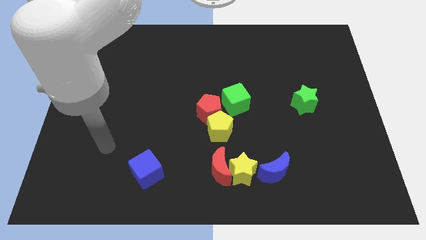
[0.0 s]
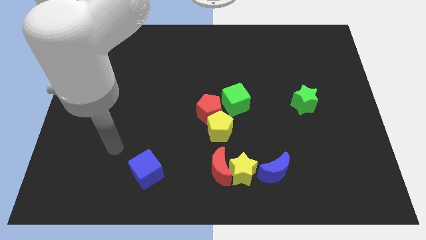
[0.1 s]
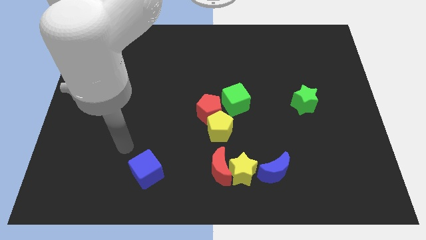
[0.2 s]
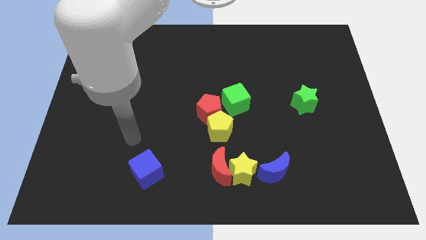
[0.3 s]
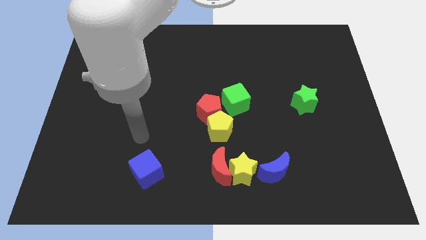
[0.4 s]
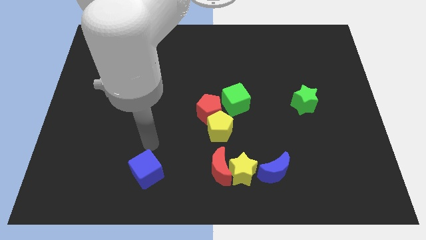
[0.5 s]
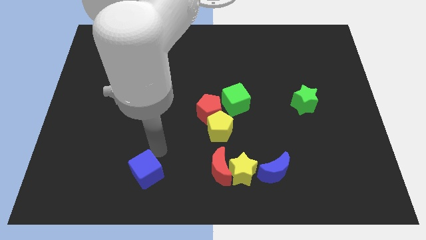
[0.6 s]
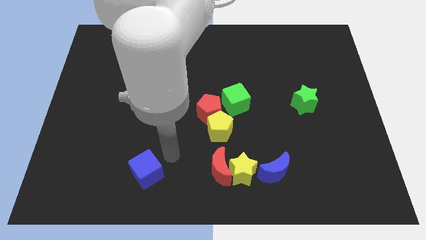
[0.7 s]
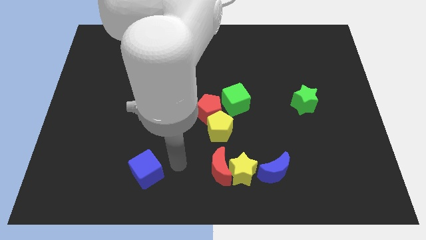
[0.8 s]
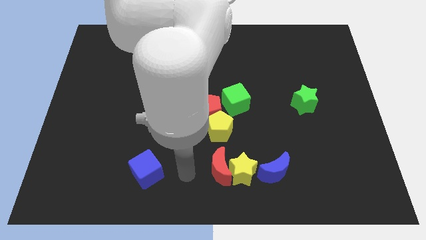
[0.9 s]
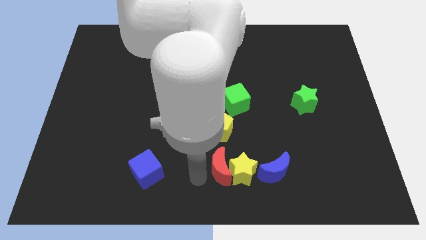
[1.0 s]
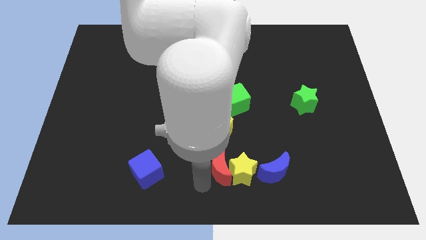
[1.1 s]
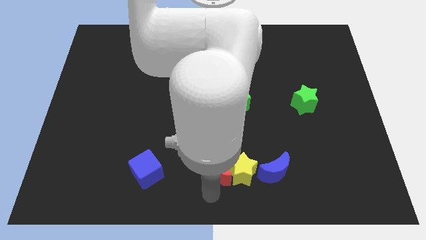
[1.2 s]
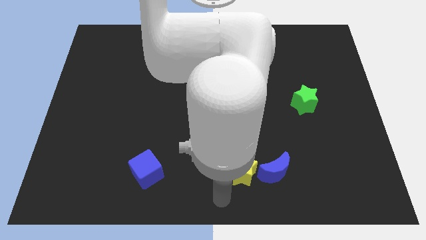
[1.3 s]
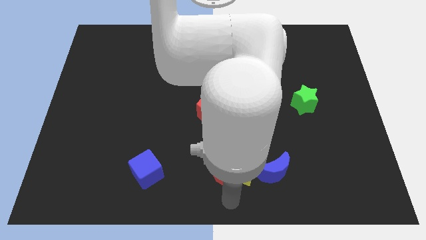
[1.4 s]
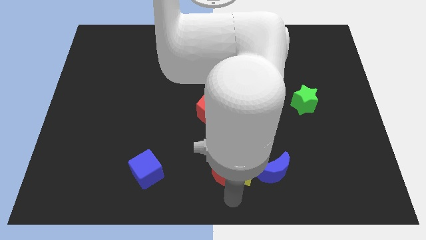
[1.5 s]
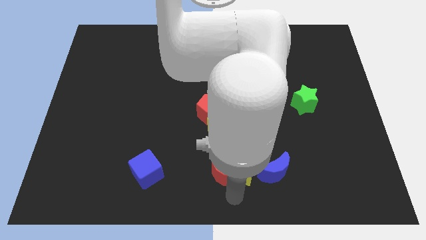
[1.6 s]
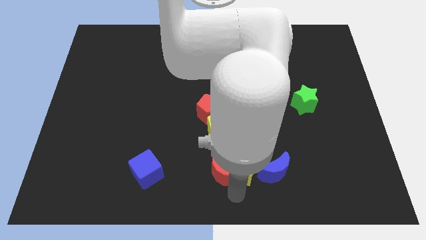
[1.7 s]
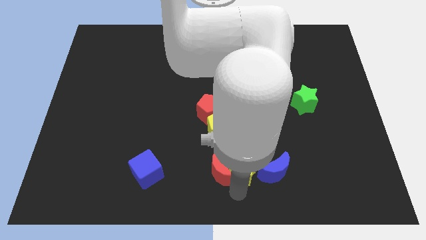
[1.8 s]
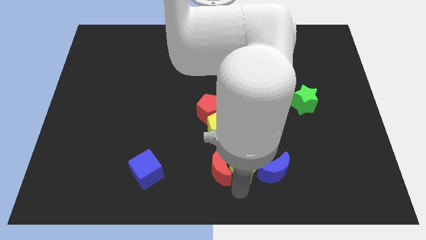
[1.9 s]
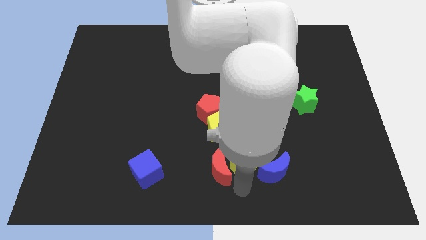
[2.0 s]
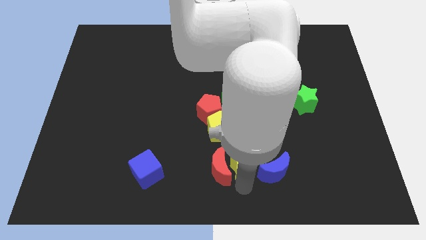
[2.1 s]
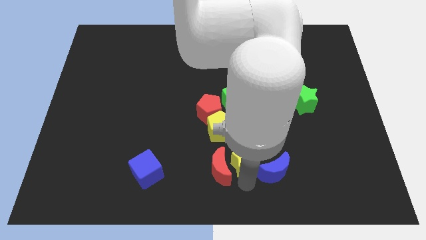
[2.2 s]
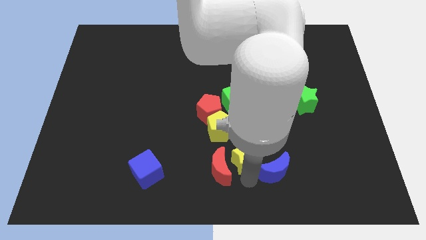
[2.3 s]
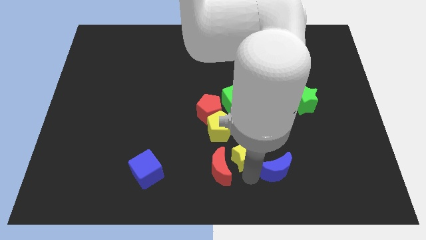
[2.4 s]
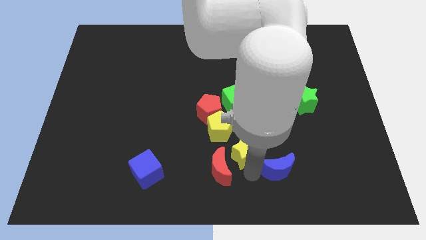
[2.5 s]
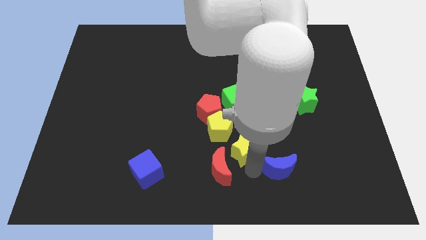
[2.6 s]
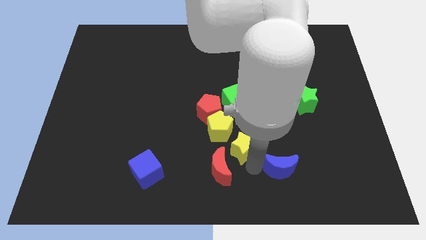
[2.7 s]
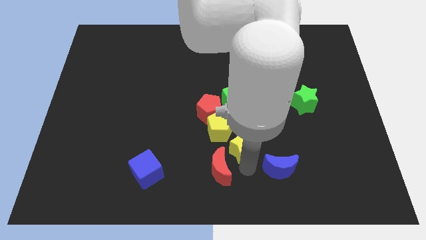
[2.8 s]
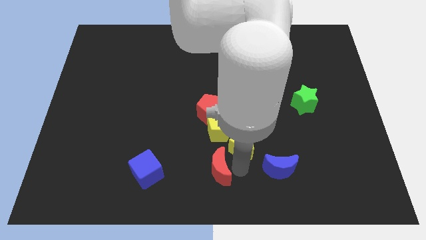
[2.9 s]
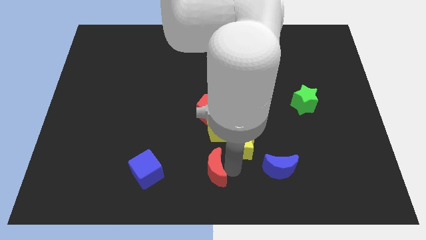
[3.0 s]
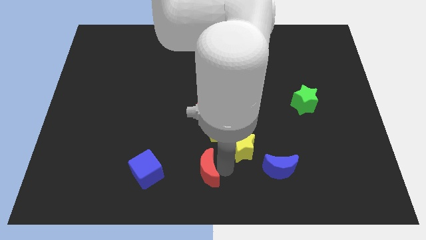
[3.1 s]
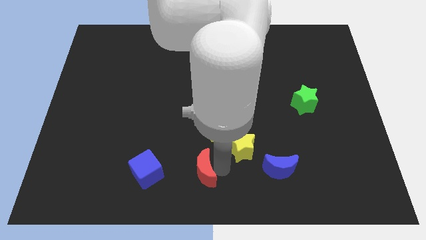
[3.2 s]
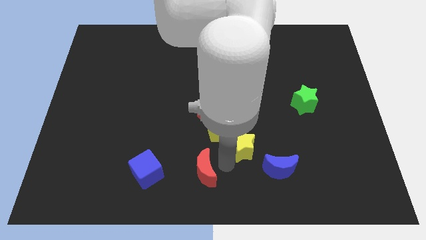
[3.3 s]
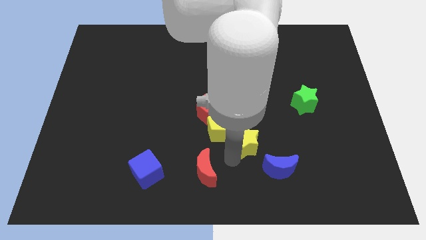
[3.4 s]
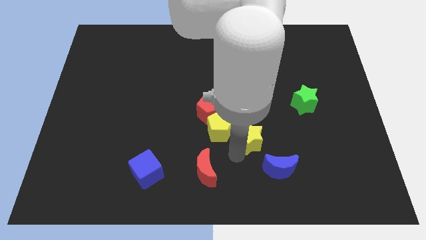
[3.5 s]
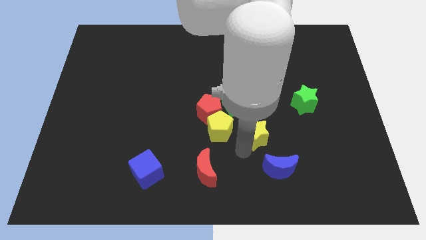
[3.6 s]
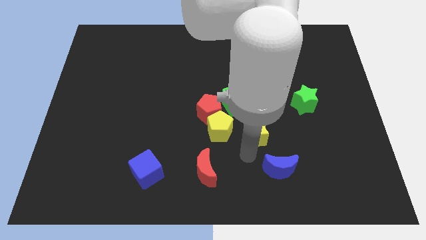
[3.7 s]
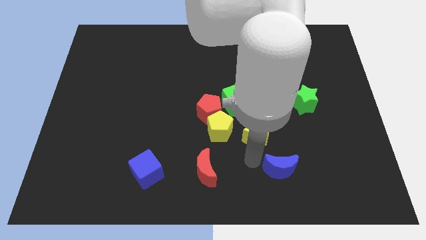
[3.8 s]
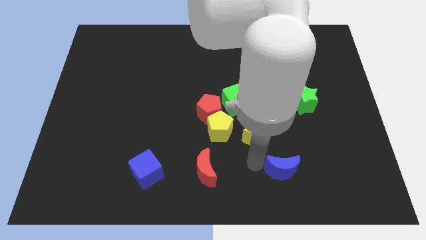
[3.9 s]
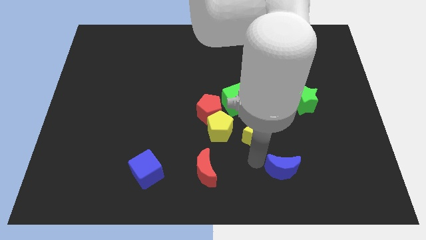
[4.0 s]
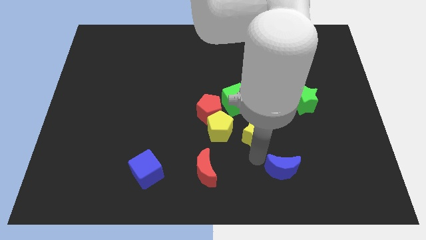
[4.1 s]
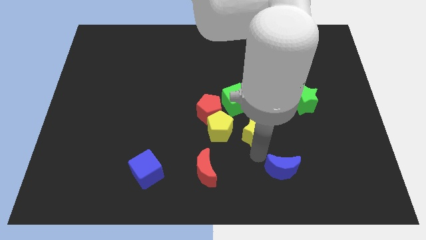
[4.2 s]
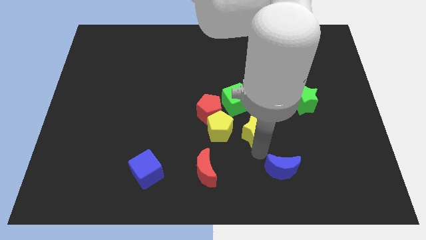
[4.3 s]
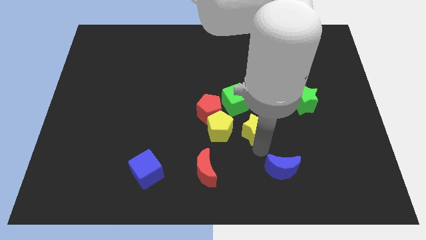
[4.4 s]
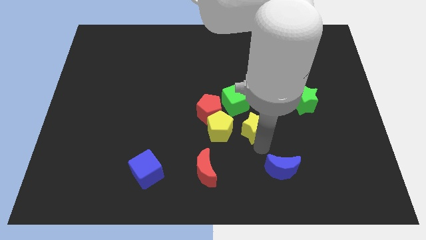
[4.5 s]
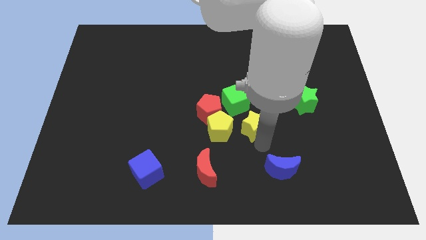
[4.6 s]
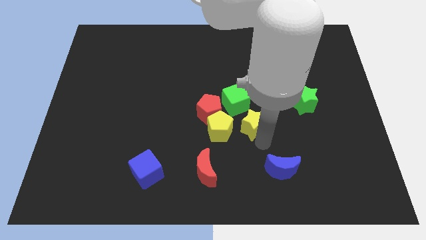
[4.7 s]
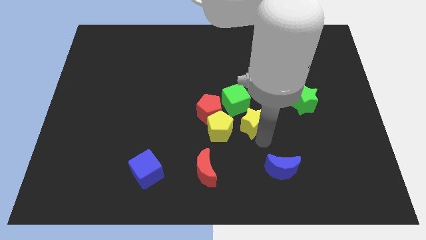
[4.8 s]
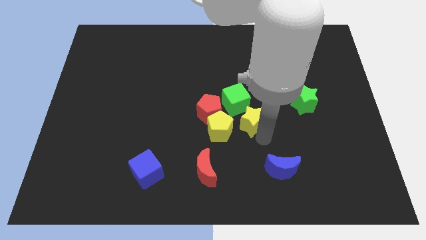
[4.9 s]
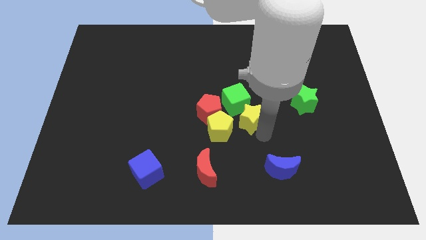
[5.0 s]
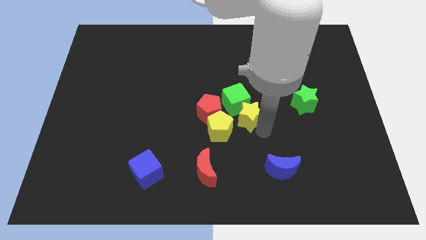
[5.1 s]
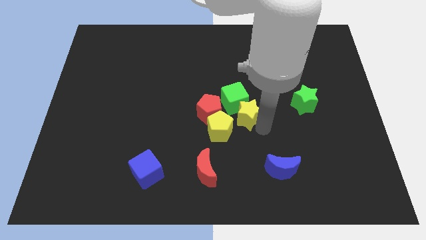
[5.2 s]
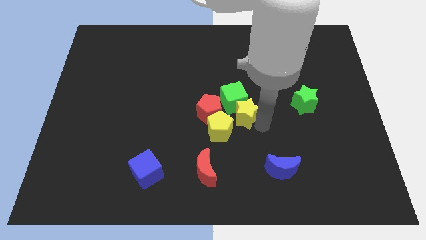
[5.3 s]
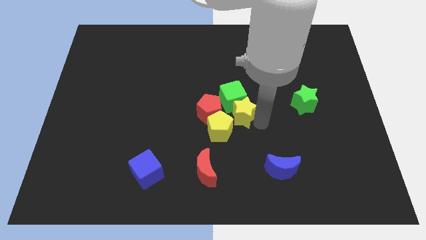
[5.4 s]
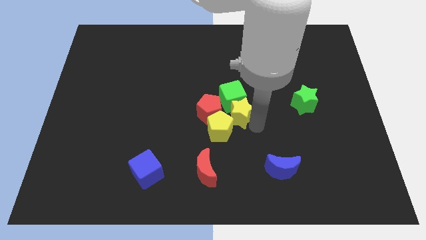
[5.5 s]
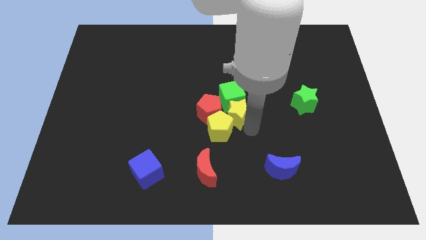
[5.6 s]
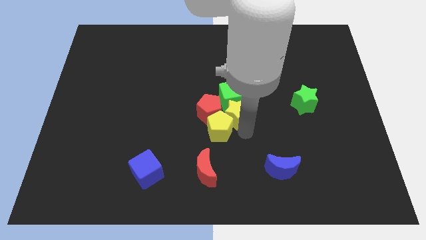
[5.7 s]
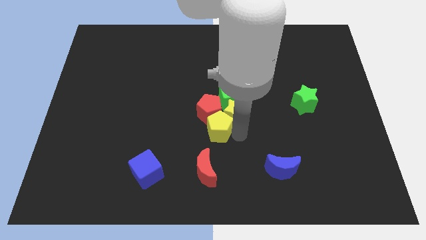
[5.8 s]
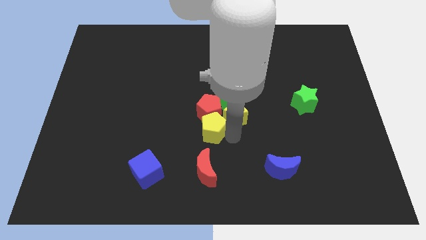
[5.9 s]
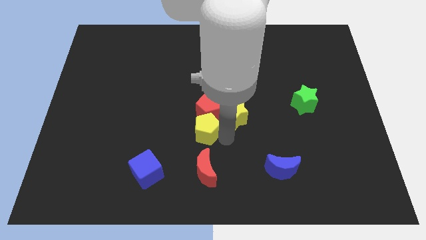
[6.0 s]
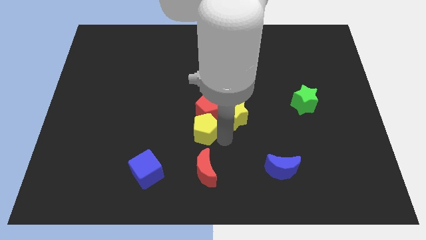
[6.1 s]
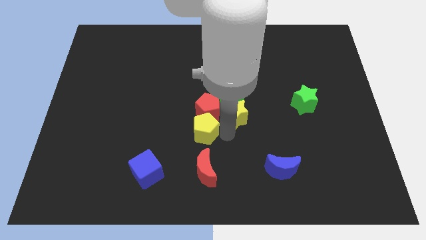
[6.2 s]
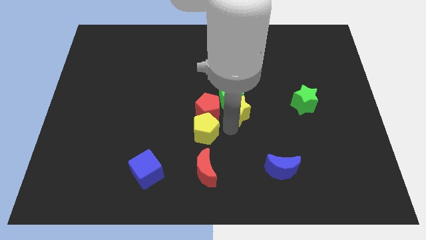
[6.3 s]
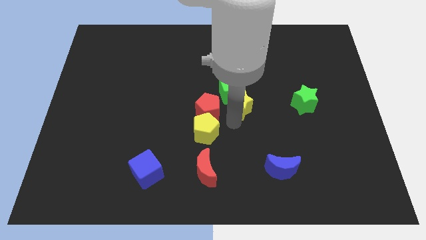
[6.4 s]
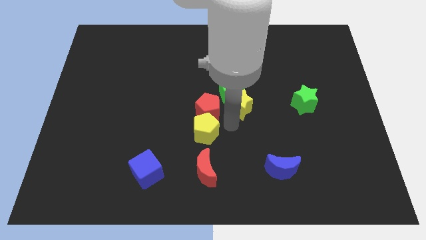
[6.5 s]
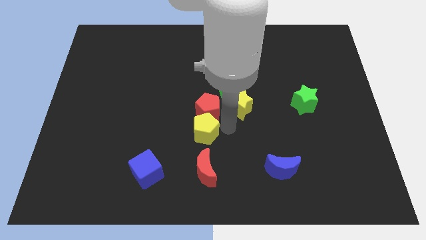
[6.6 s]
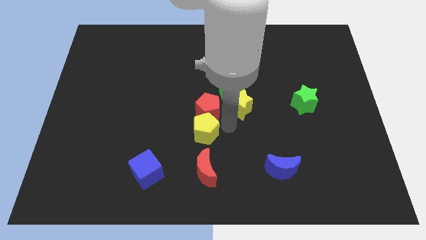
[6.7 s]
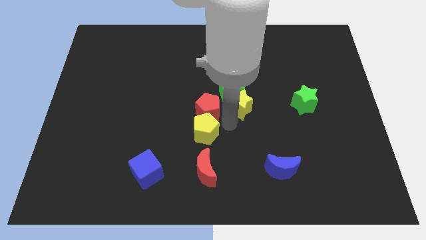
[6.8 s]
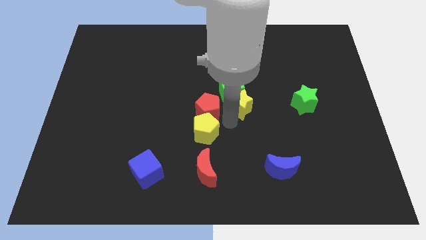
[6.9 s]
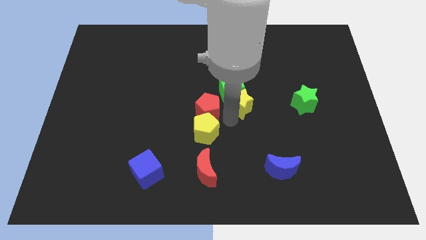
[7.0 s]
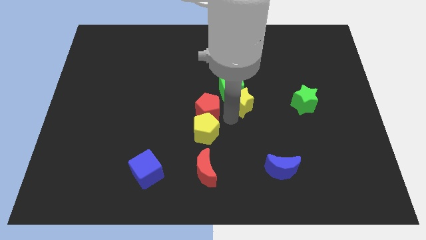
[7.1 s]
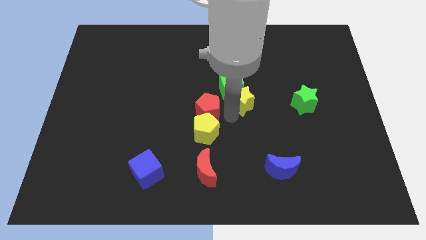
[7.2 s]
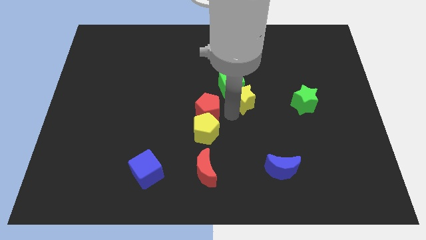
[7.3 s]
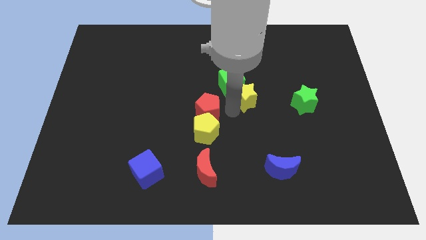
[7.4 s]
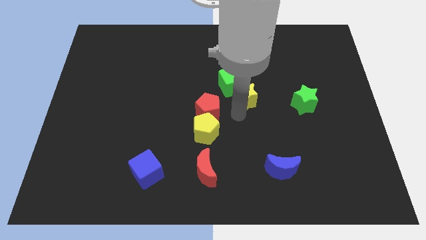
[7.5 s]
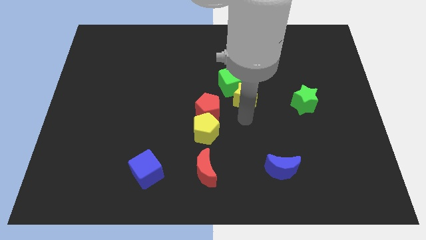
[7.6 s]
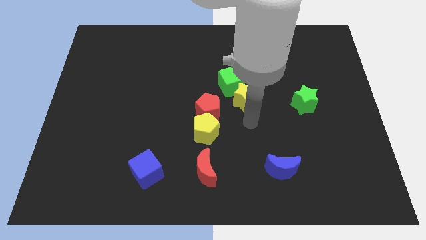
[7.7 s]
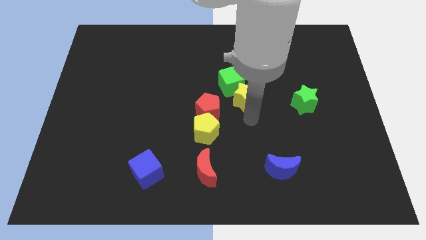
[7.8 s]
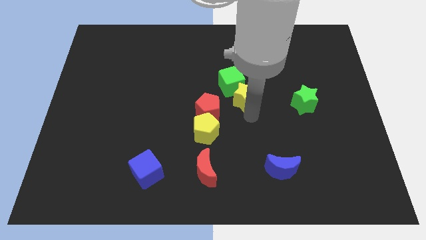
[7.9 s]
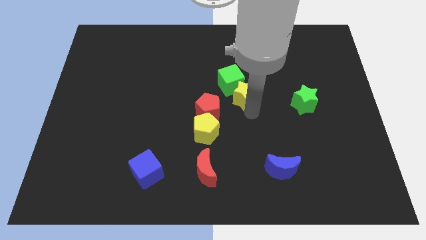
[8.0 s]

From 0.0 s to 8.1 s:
move the yellow star upwards
